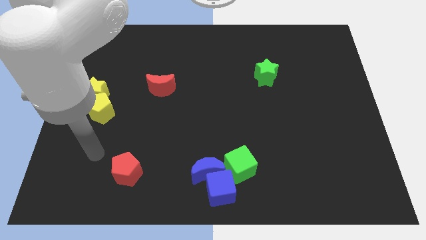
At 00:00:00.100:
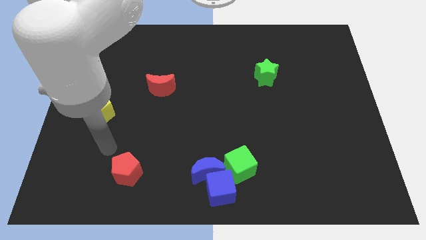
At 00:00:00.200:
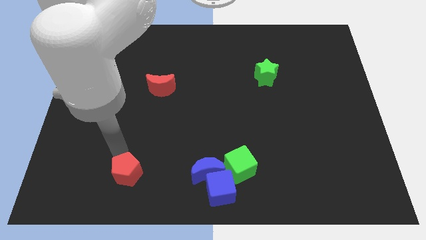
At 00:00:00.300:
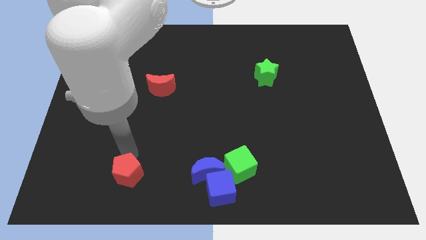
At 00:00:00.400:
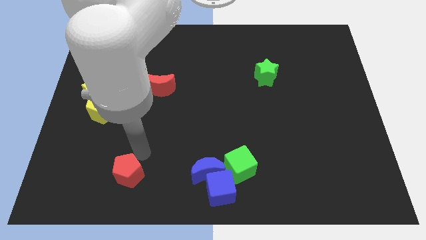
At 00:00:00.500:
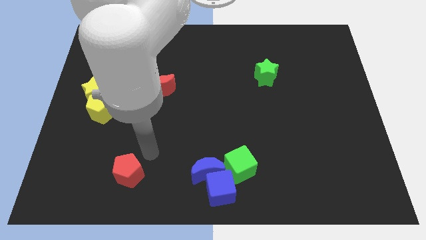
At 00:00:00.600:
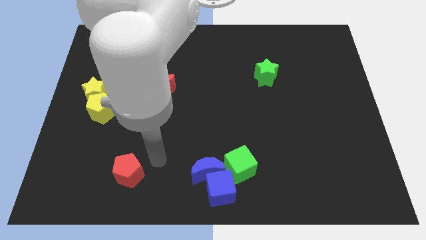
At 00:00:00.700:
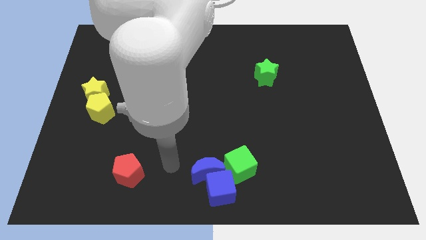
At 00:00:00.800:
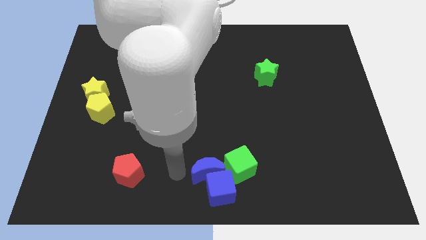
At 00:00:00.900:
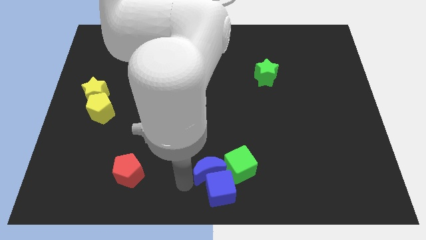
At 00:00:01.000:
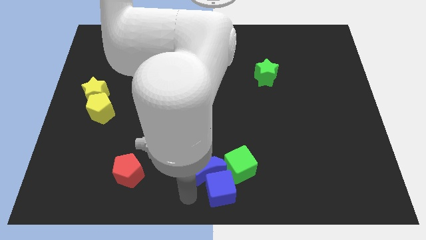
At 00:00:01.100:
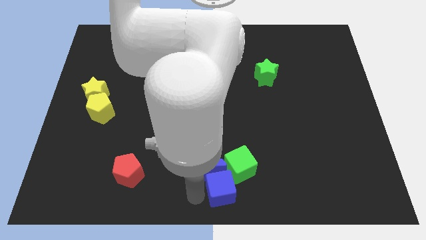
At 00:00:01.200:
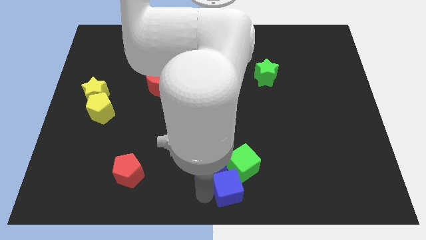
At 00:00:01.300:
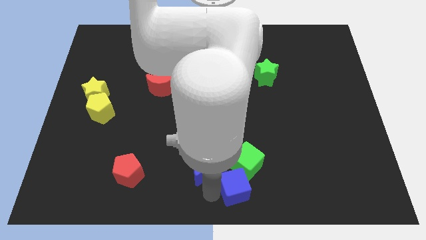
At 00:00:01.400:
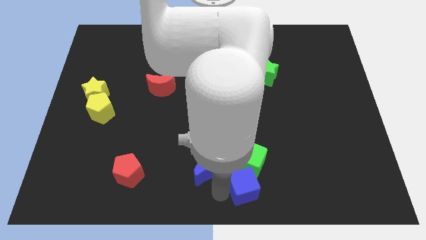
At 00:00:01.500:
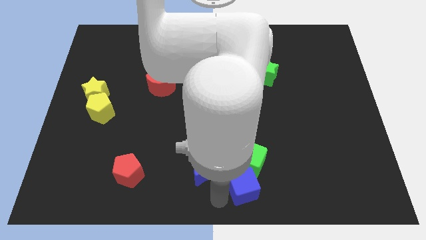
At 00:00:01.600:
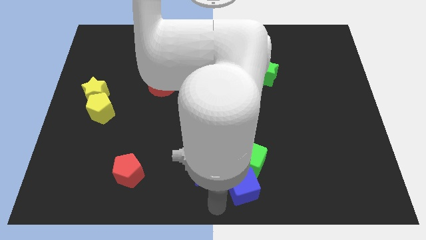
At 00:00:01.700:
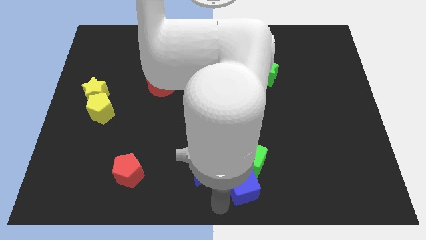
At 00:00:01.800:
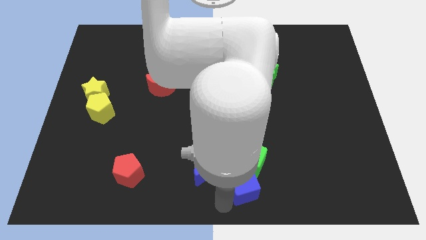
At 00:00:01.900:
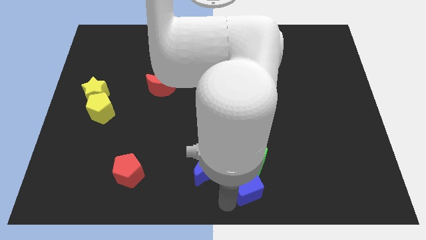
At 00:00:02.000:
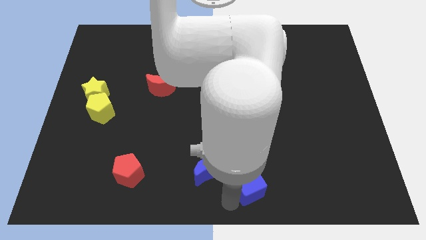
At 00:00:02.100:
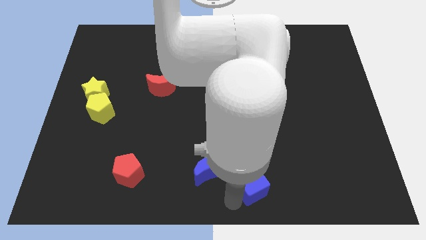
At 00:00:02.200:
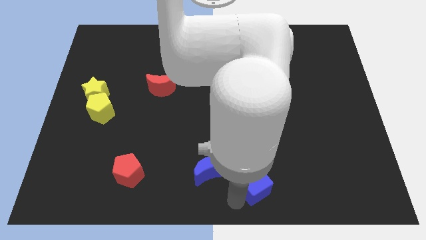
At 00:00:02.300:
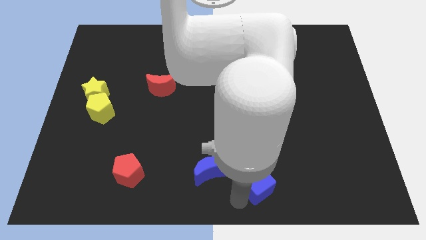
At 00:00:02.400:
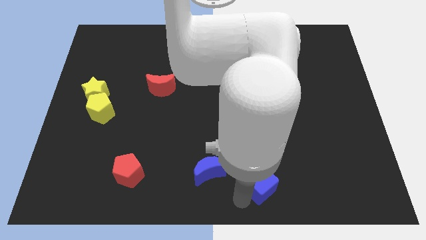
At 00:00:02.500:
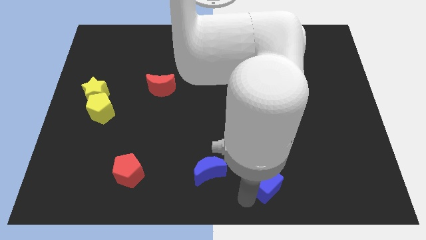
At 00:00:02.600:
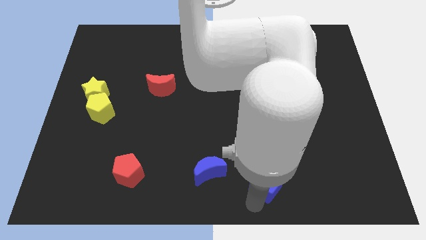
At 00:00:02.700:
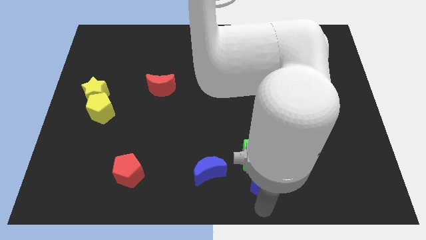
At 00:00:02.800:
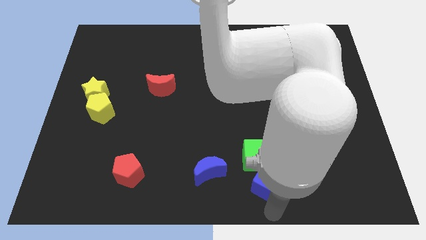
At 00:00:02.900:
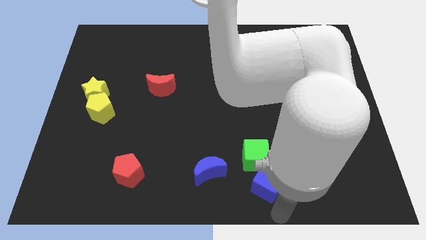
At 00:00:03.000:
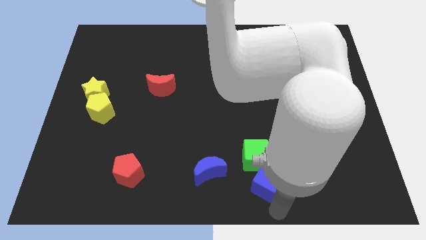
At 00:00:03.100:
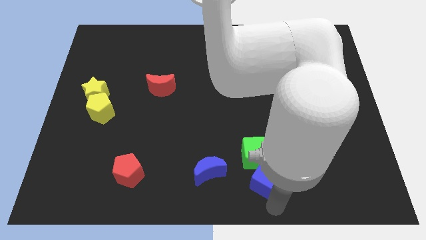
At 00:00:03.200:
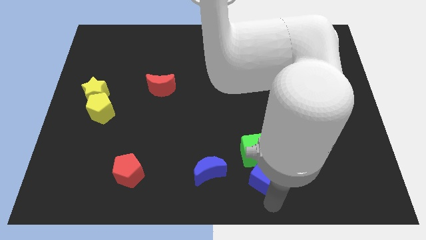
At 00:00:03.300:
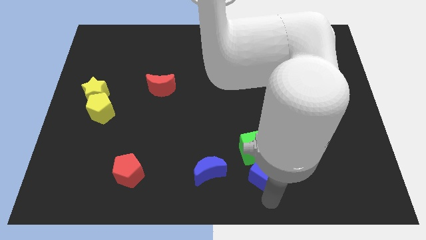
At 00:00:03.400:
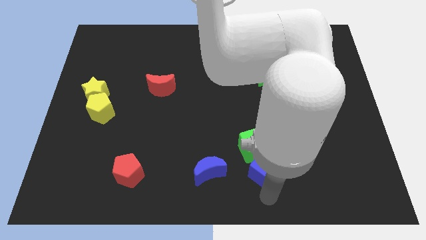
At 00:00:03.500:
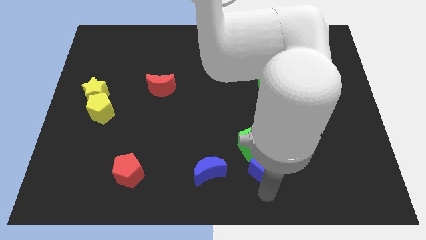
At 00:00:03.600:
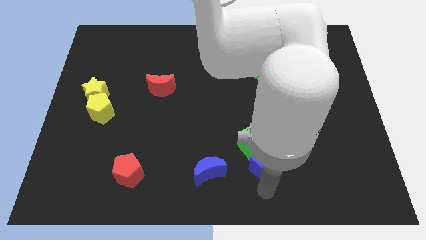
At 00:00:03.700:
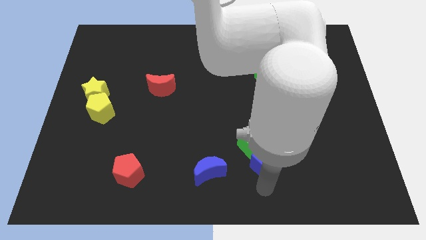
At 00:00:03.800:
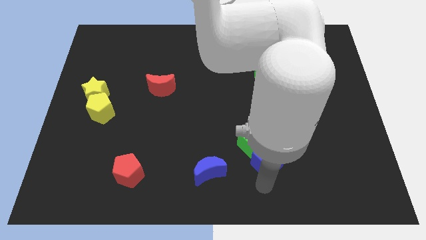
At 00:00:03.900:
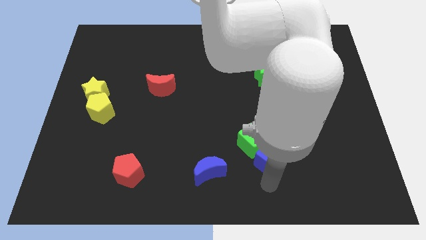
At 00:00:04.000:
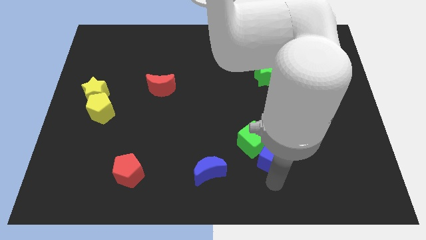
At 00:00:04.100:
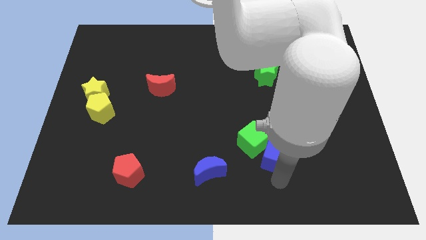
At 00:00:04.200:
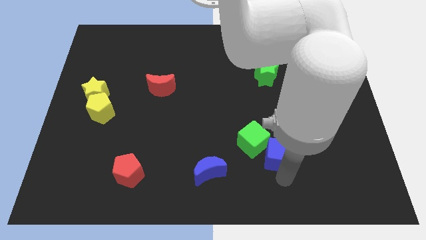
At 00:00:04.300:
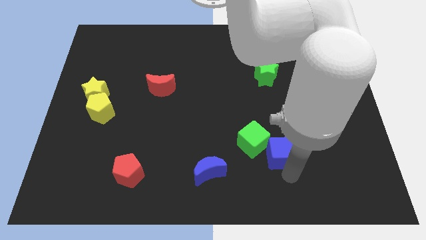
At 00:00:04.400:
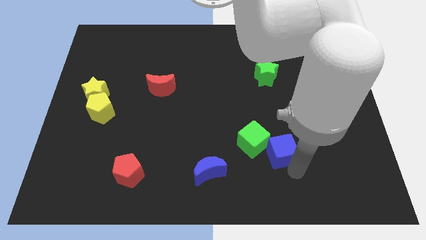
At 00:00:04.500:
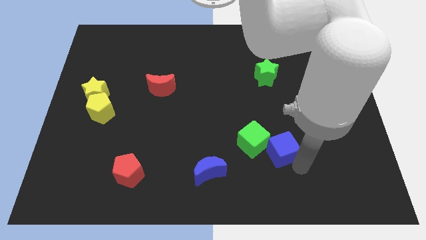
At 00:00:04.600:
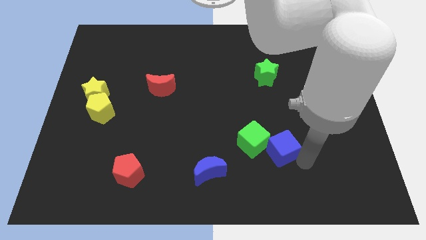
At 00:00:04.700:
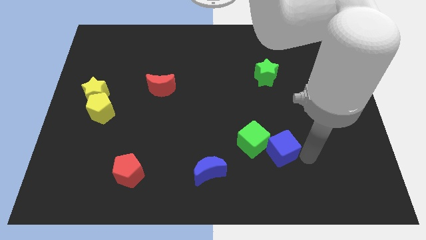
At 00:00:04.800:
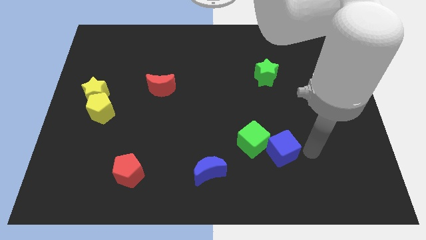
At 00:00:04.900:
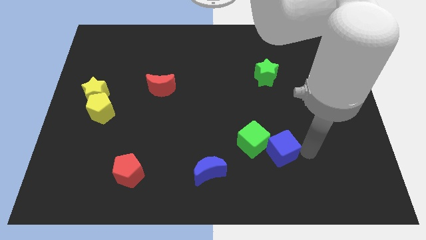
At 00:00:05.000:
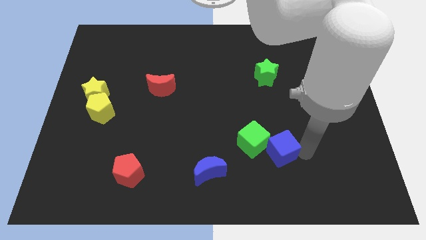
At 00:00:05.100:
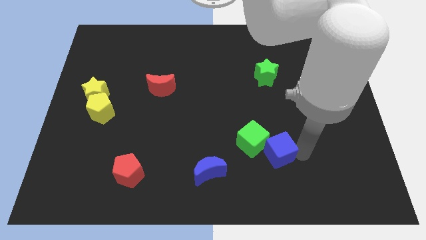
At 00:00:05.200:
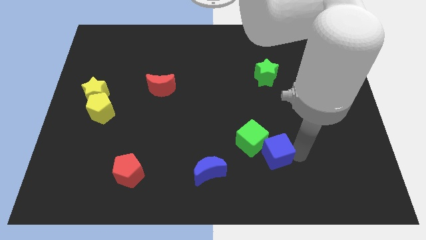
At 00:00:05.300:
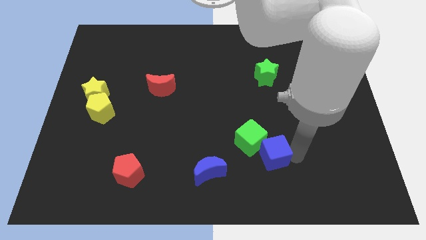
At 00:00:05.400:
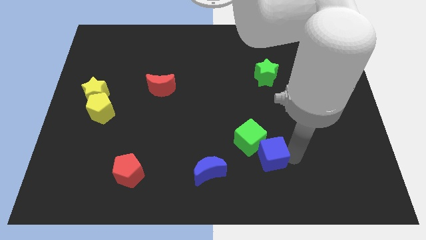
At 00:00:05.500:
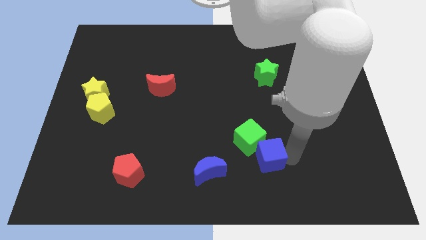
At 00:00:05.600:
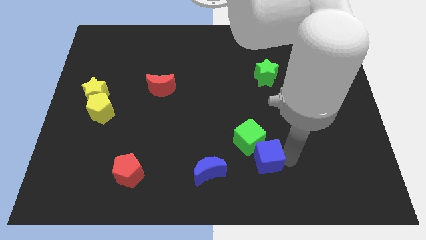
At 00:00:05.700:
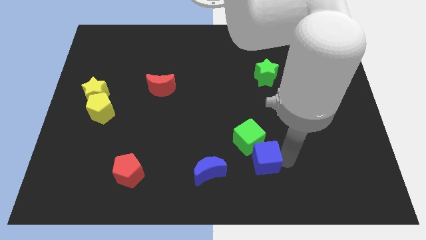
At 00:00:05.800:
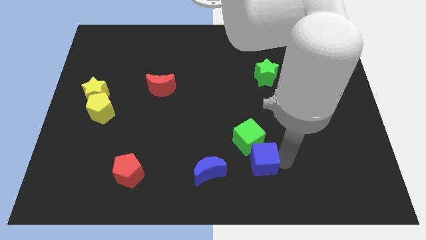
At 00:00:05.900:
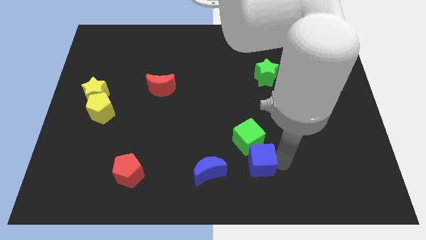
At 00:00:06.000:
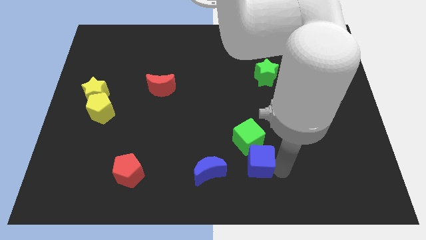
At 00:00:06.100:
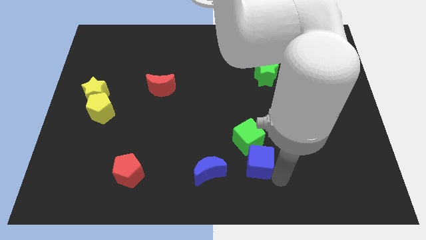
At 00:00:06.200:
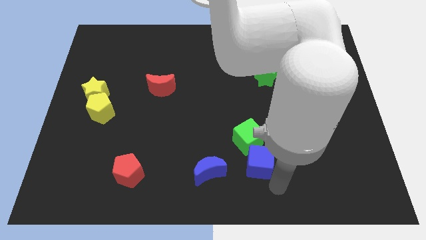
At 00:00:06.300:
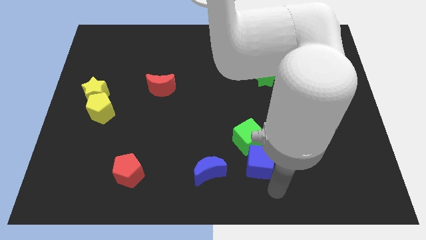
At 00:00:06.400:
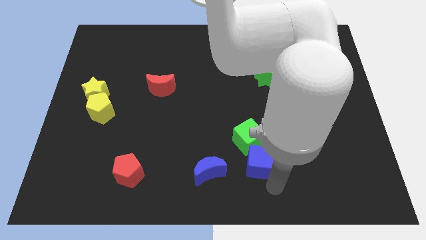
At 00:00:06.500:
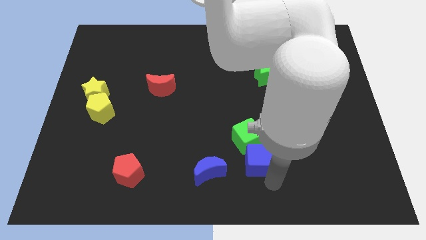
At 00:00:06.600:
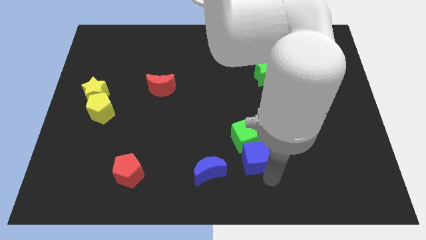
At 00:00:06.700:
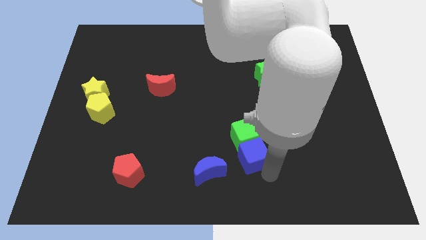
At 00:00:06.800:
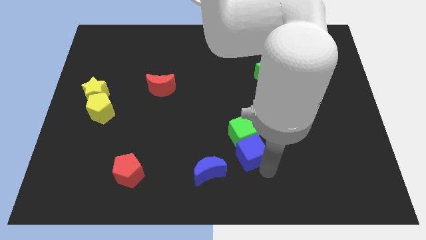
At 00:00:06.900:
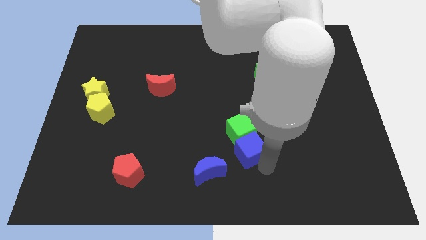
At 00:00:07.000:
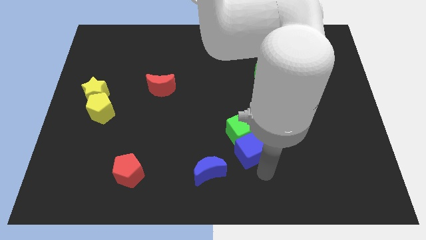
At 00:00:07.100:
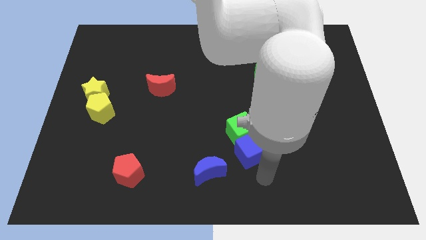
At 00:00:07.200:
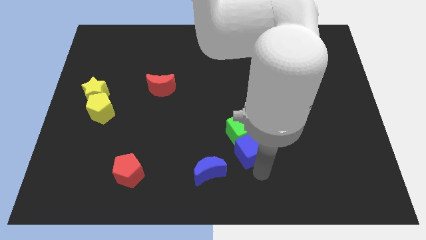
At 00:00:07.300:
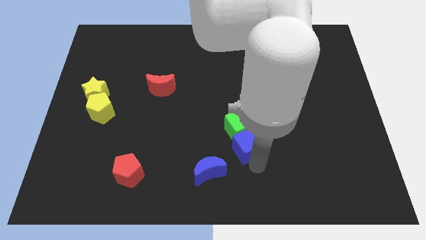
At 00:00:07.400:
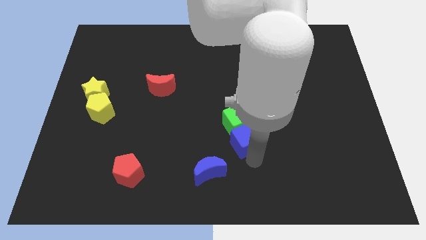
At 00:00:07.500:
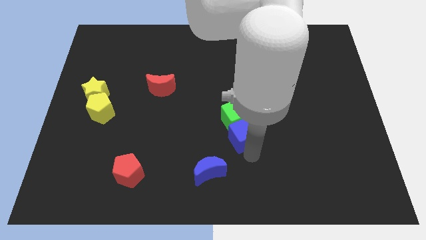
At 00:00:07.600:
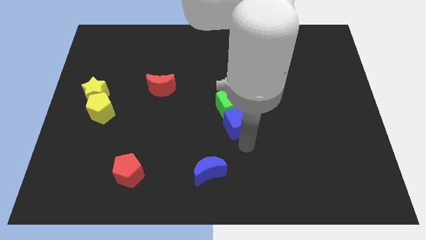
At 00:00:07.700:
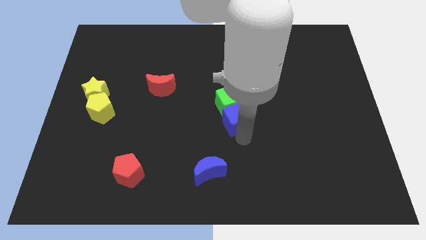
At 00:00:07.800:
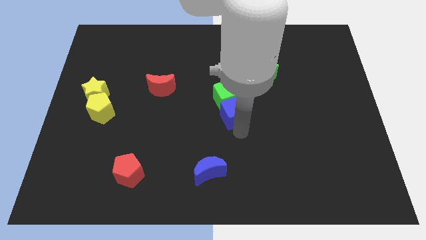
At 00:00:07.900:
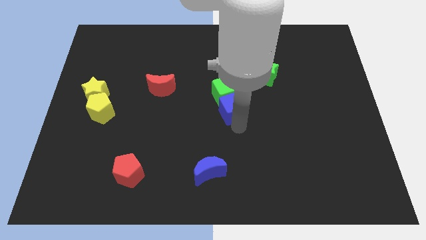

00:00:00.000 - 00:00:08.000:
move the blue cube upwards
